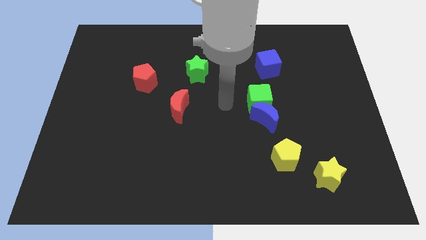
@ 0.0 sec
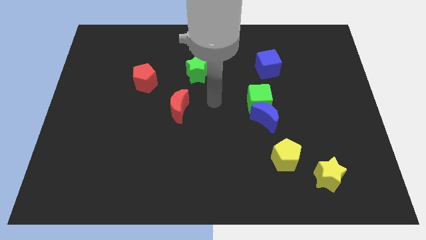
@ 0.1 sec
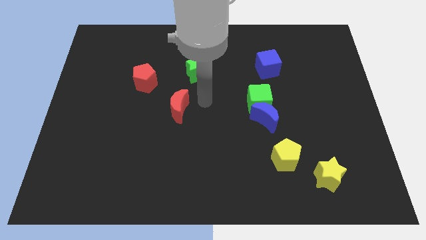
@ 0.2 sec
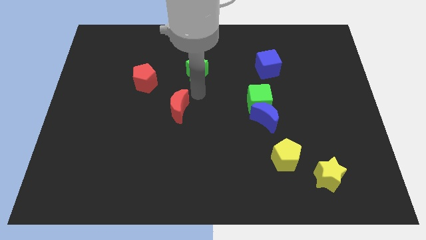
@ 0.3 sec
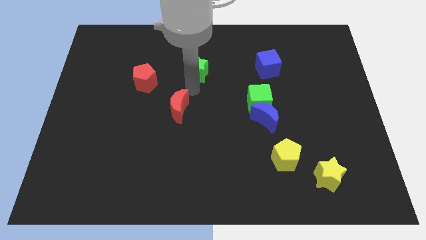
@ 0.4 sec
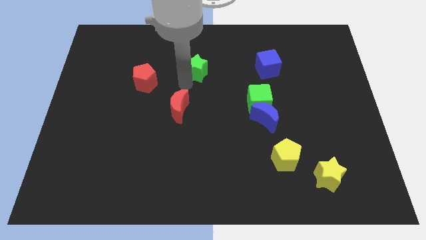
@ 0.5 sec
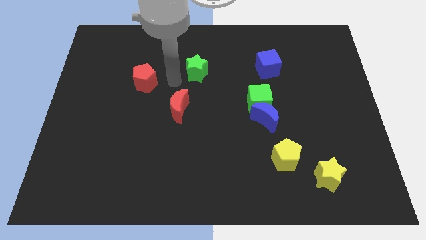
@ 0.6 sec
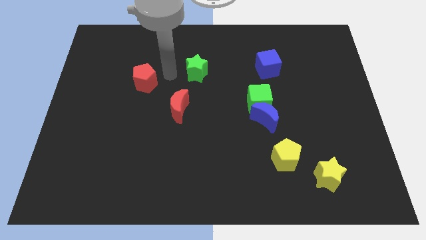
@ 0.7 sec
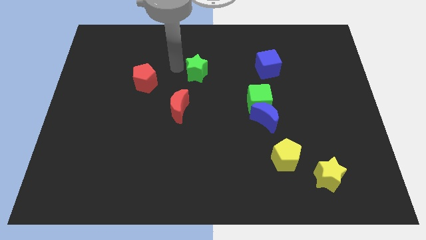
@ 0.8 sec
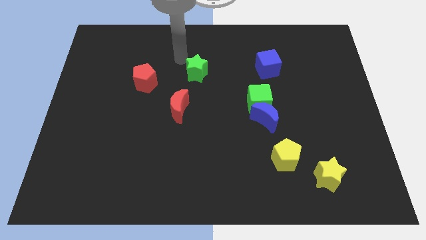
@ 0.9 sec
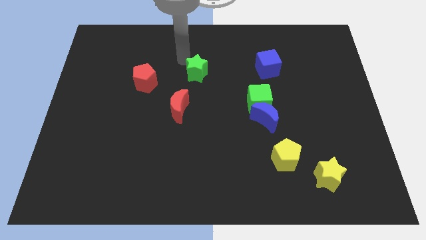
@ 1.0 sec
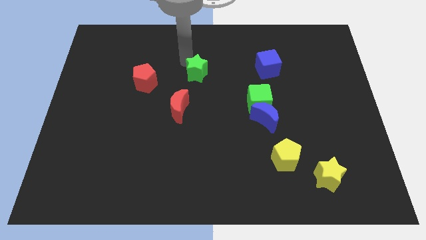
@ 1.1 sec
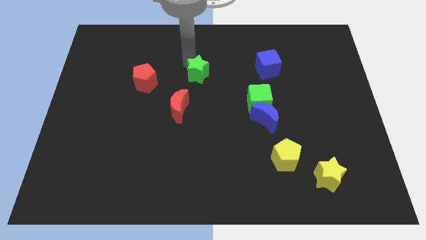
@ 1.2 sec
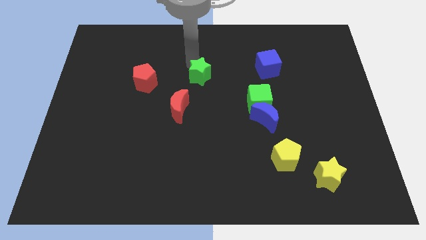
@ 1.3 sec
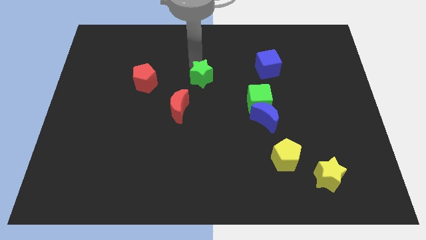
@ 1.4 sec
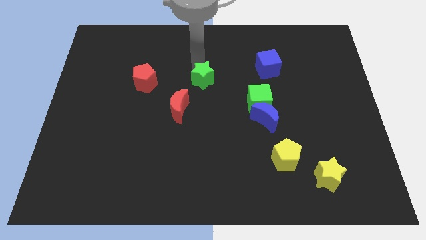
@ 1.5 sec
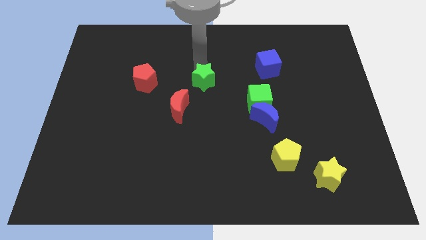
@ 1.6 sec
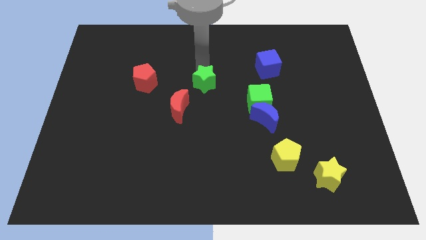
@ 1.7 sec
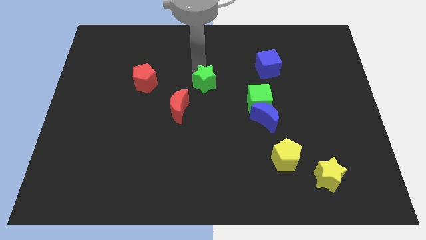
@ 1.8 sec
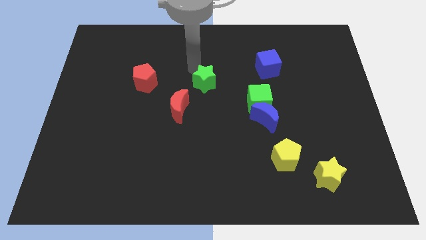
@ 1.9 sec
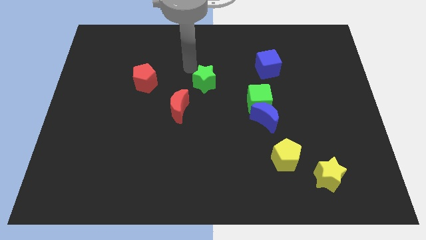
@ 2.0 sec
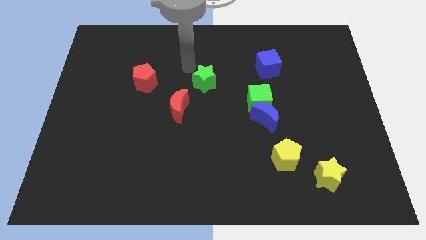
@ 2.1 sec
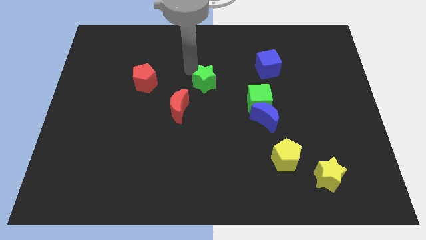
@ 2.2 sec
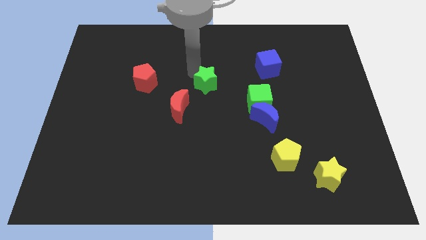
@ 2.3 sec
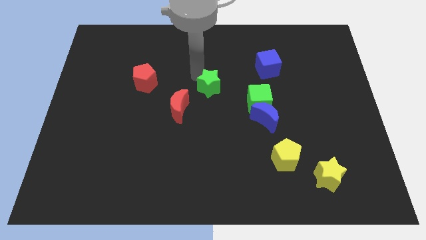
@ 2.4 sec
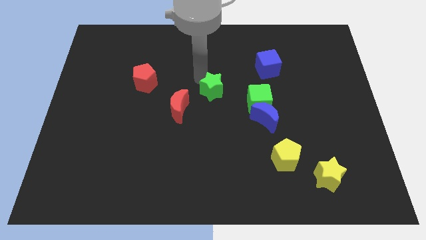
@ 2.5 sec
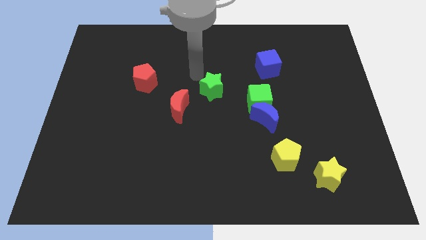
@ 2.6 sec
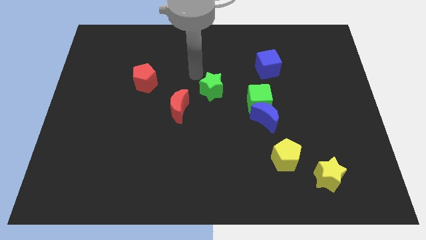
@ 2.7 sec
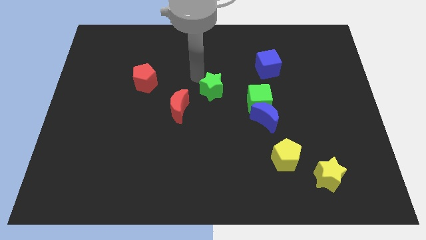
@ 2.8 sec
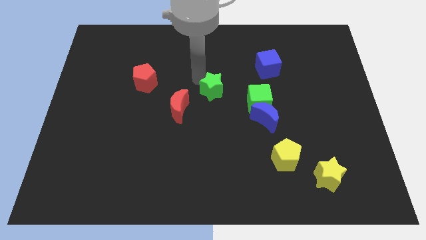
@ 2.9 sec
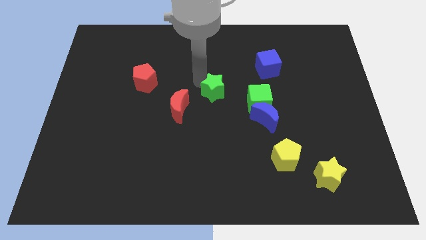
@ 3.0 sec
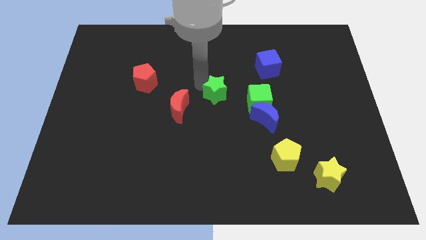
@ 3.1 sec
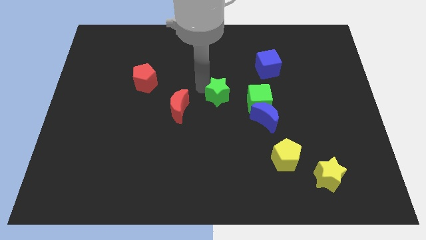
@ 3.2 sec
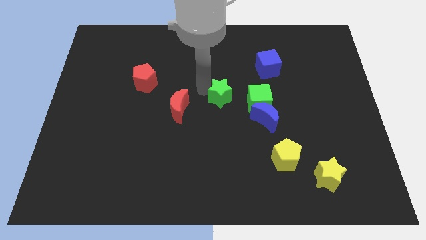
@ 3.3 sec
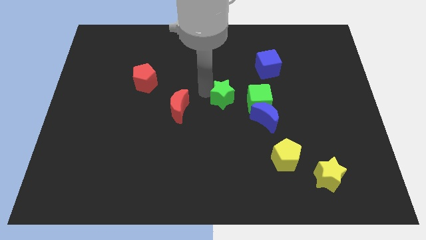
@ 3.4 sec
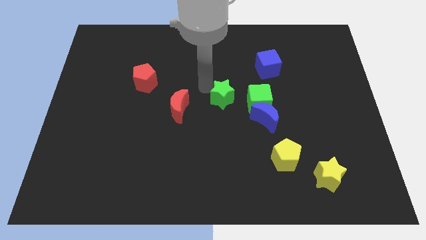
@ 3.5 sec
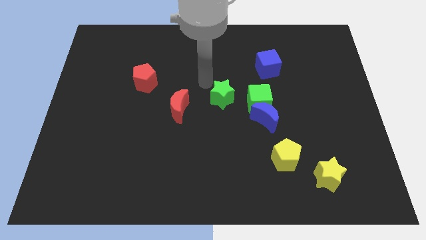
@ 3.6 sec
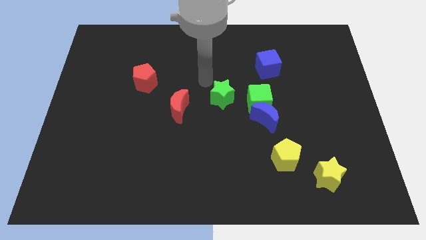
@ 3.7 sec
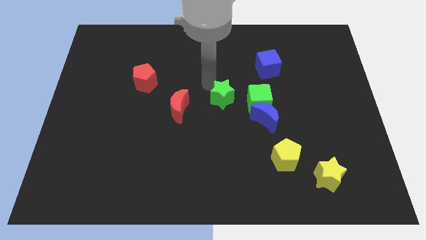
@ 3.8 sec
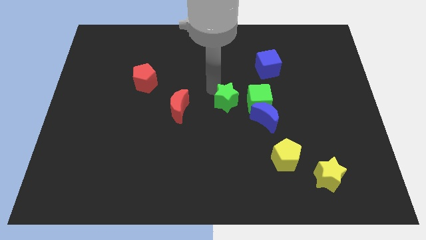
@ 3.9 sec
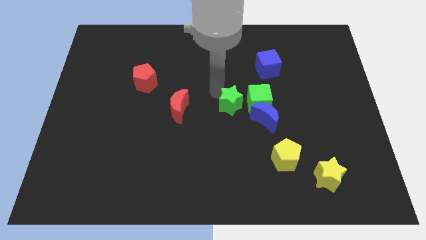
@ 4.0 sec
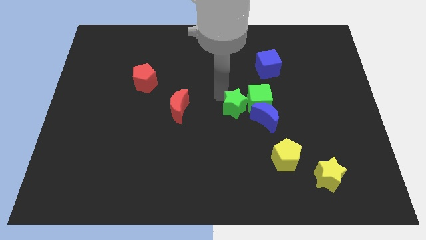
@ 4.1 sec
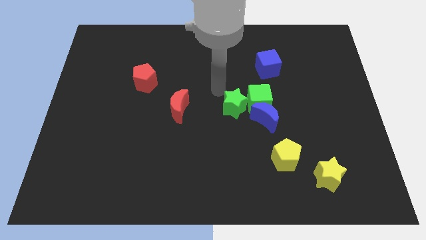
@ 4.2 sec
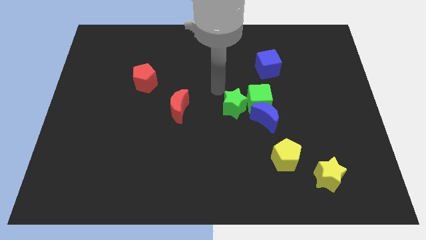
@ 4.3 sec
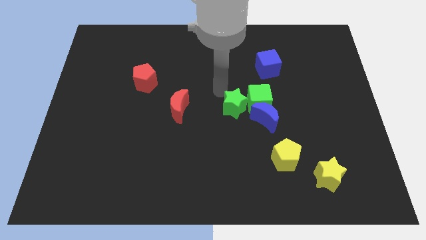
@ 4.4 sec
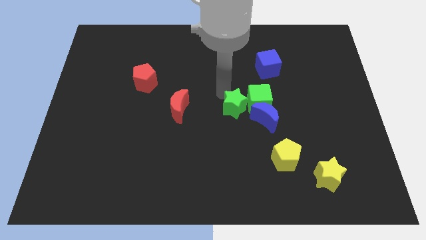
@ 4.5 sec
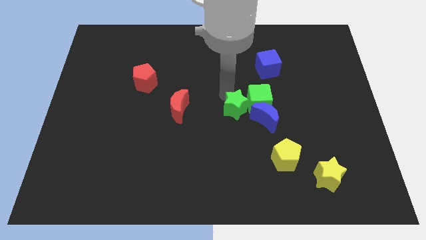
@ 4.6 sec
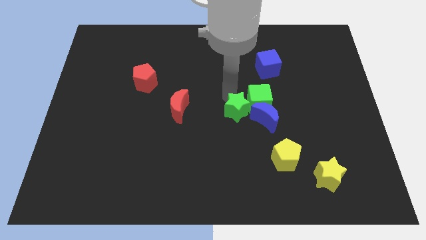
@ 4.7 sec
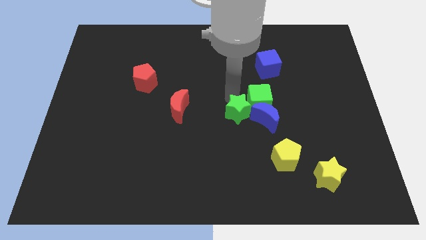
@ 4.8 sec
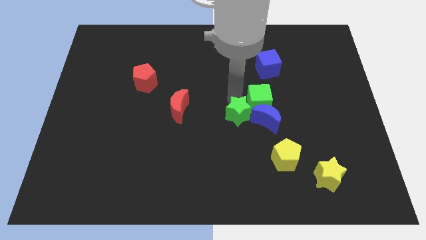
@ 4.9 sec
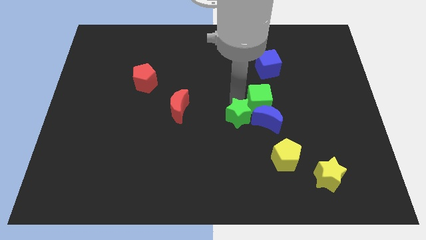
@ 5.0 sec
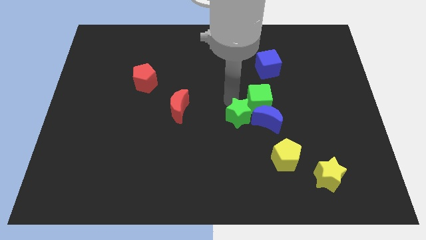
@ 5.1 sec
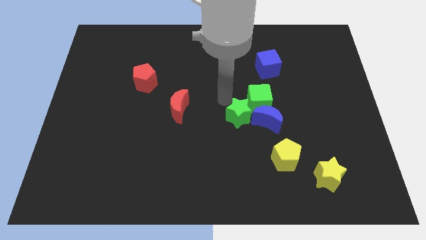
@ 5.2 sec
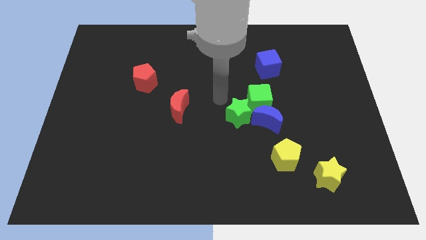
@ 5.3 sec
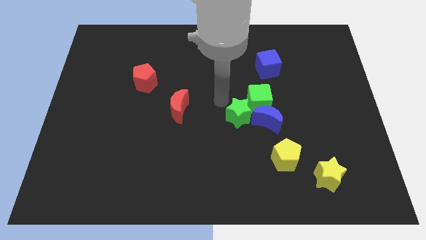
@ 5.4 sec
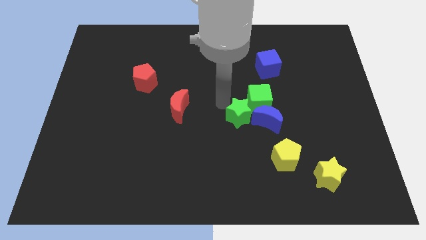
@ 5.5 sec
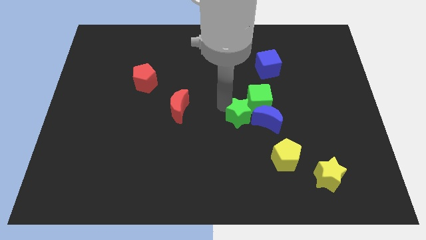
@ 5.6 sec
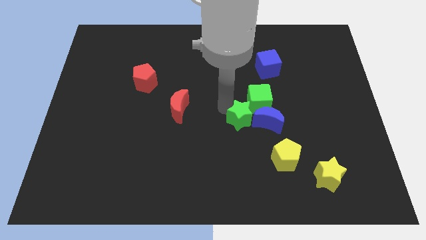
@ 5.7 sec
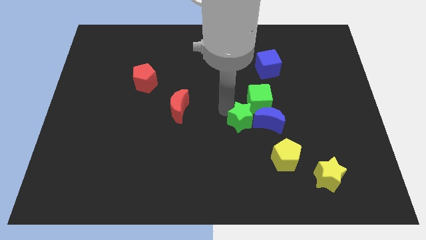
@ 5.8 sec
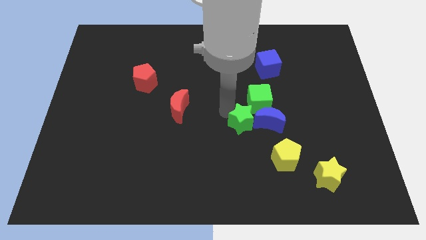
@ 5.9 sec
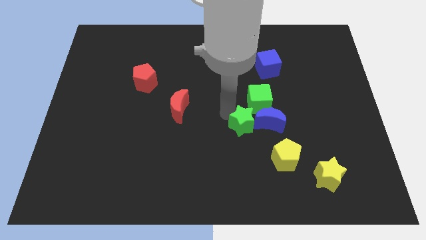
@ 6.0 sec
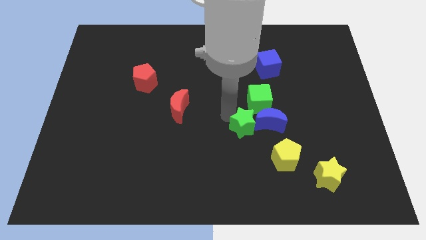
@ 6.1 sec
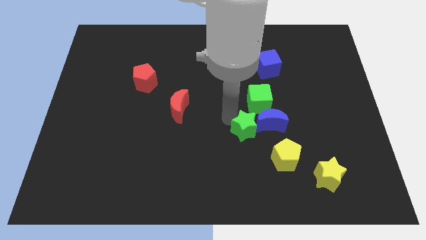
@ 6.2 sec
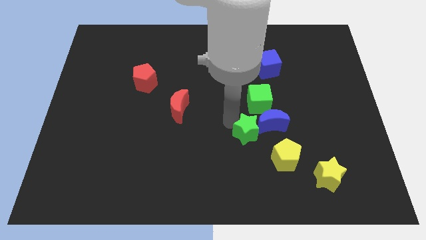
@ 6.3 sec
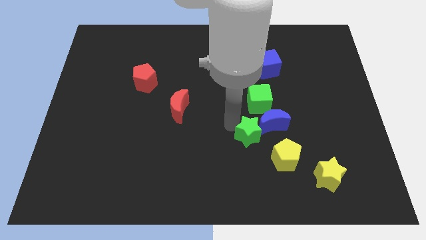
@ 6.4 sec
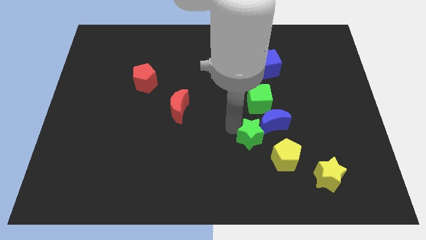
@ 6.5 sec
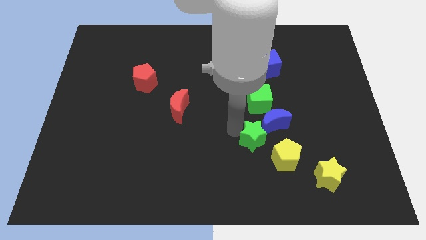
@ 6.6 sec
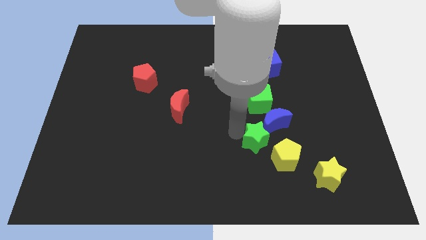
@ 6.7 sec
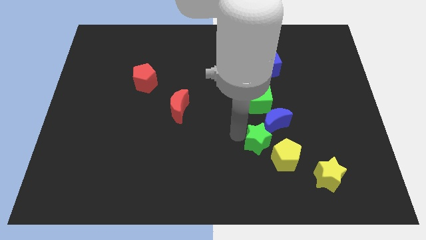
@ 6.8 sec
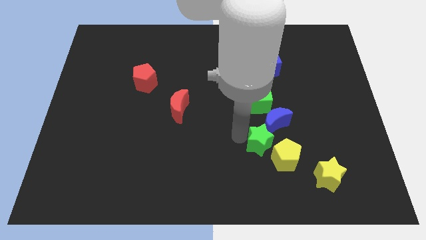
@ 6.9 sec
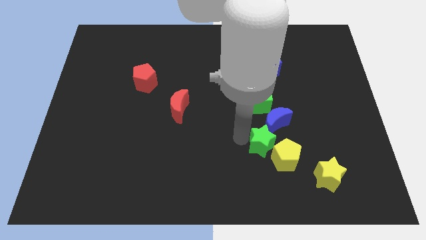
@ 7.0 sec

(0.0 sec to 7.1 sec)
put the green star to the yellow pentagon

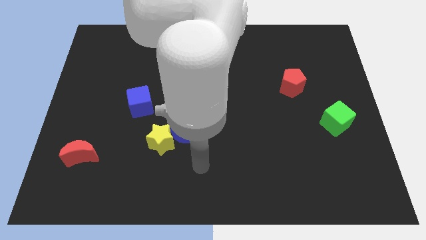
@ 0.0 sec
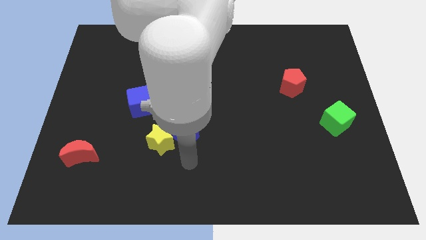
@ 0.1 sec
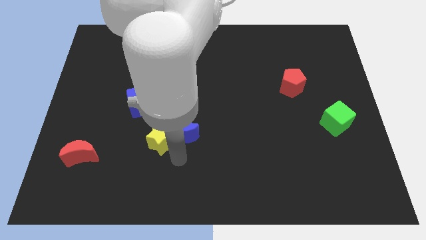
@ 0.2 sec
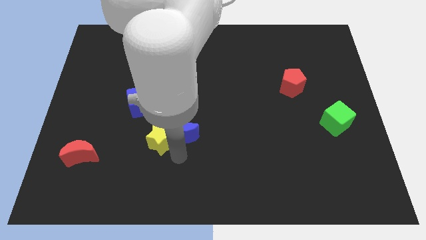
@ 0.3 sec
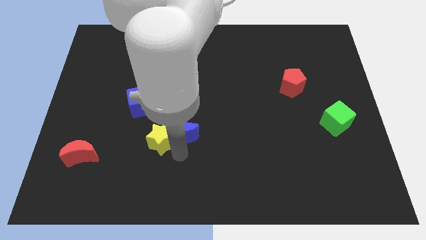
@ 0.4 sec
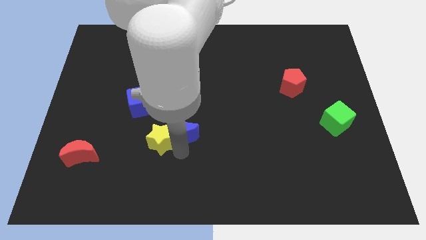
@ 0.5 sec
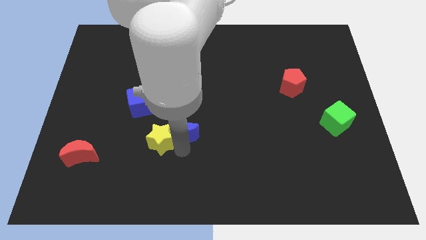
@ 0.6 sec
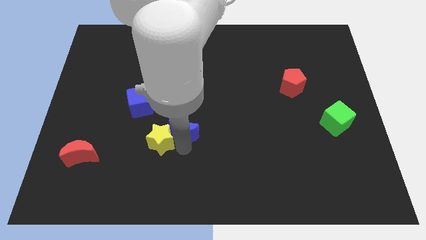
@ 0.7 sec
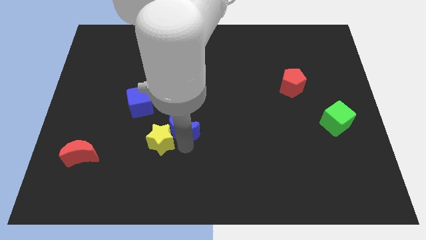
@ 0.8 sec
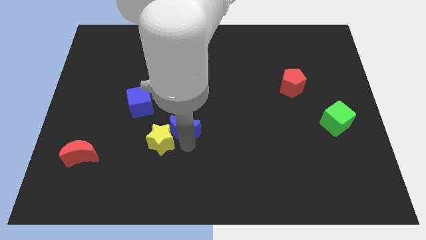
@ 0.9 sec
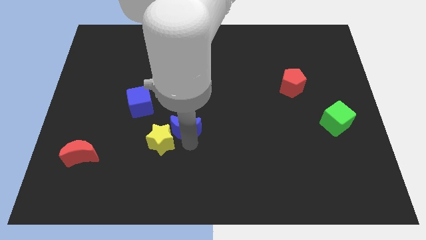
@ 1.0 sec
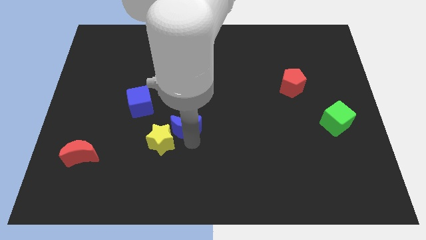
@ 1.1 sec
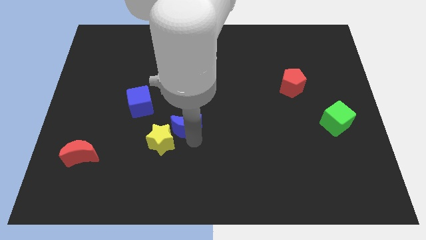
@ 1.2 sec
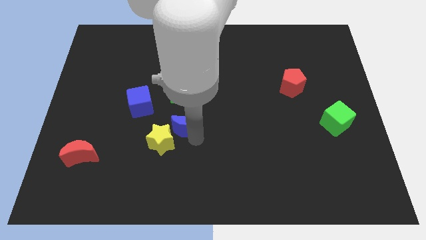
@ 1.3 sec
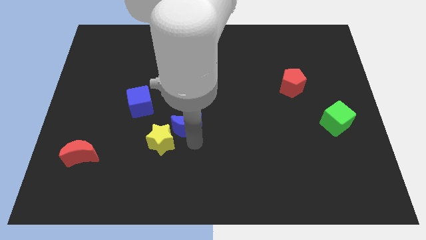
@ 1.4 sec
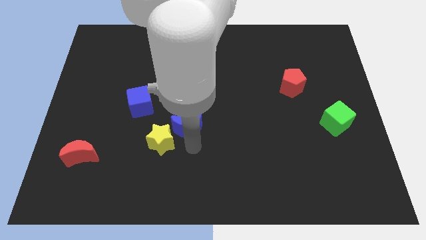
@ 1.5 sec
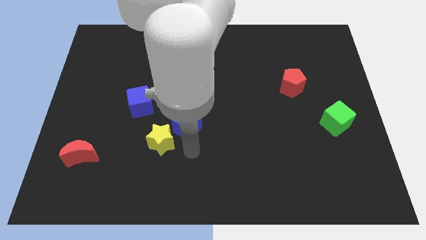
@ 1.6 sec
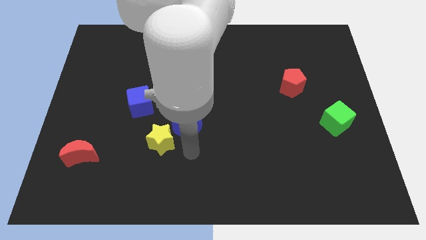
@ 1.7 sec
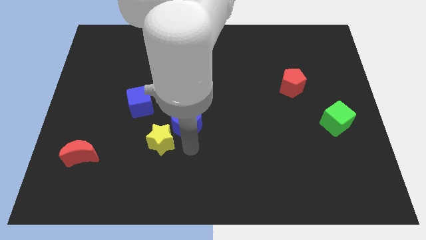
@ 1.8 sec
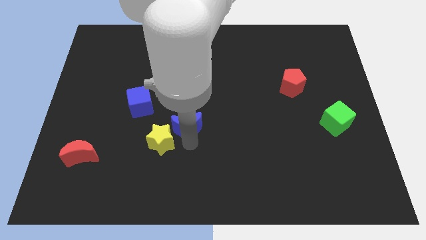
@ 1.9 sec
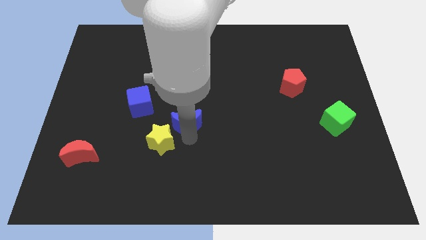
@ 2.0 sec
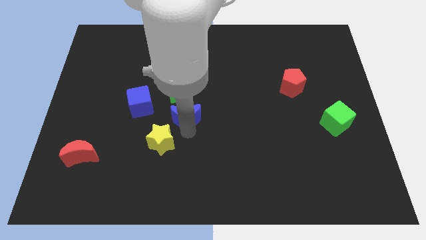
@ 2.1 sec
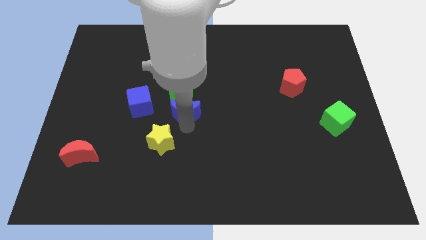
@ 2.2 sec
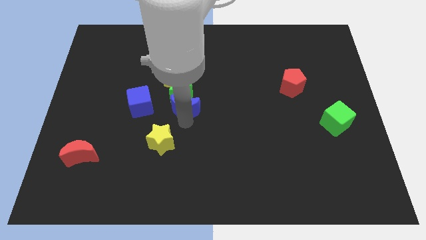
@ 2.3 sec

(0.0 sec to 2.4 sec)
slide the blue moon next to the green star
